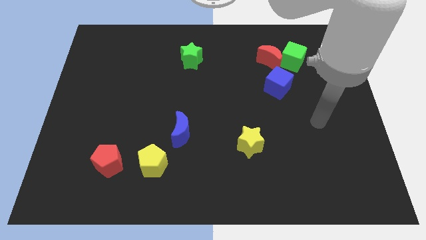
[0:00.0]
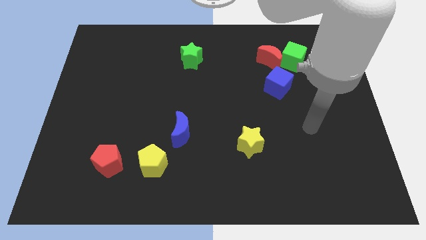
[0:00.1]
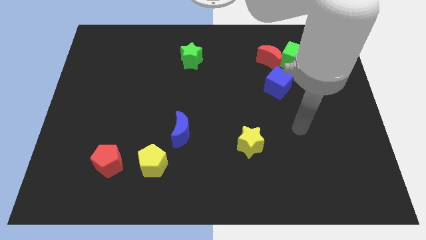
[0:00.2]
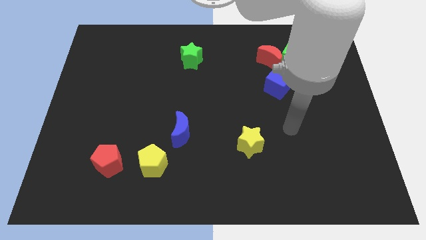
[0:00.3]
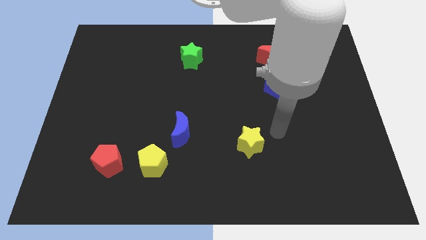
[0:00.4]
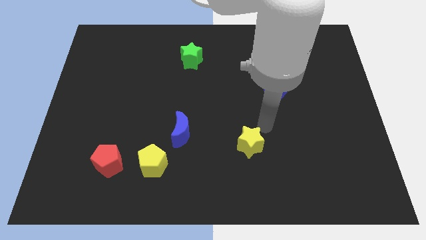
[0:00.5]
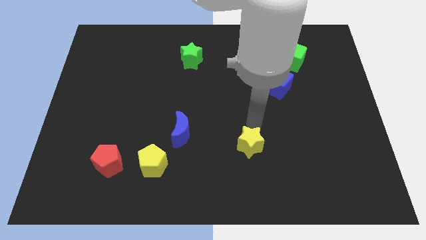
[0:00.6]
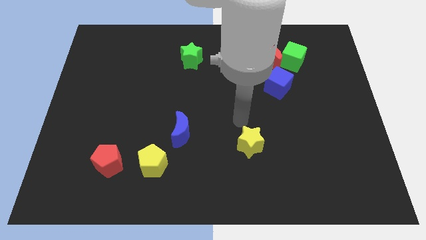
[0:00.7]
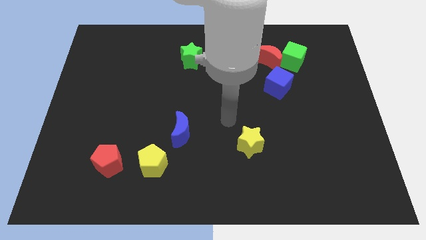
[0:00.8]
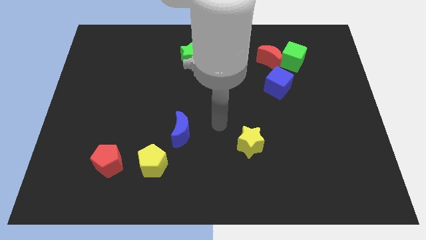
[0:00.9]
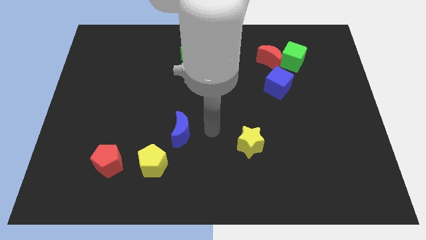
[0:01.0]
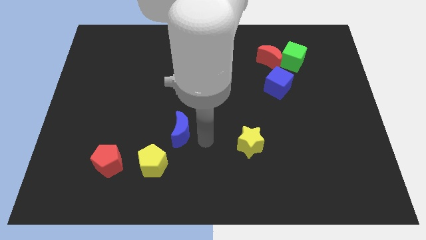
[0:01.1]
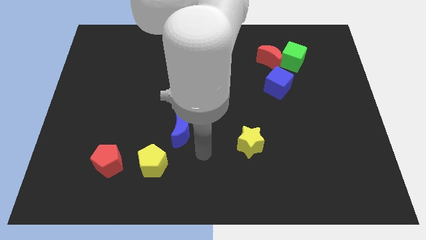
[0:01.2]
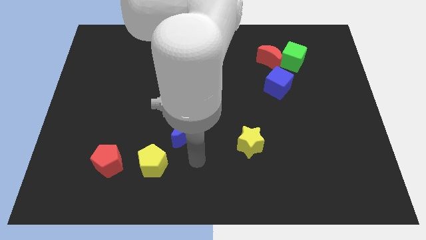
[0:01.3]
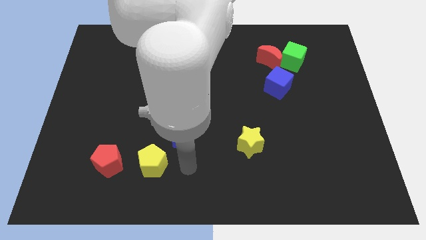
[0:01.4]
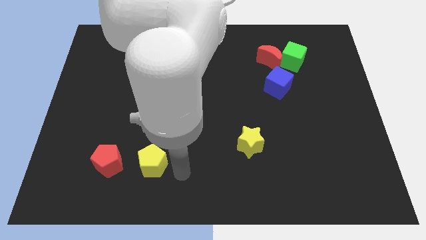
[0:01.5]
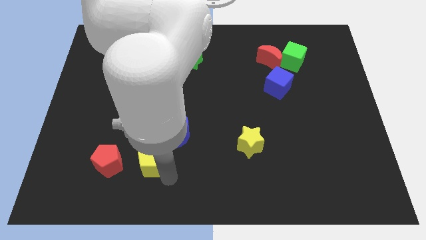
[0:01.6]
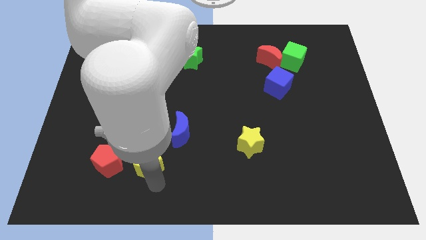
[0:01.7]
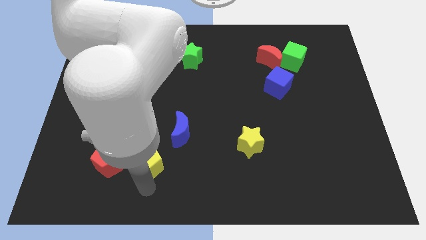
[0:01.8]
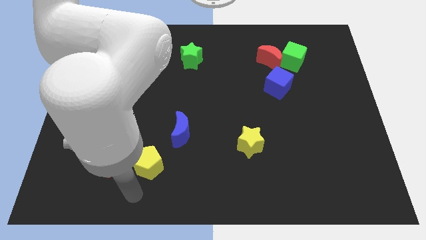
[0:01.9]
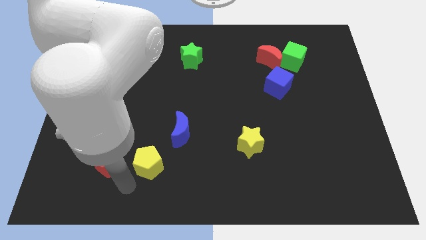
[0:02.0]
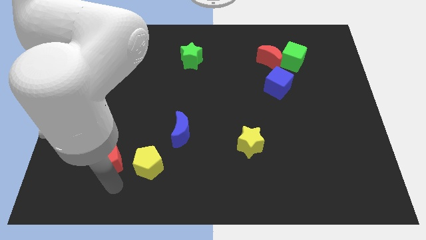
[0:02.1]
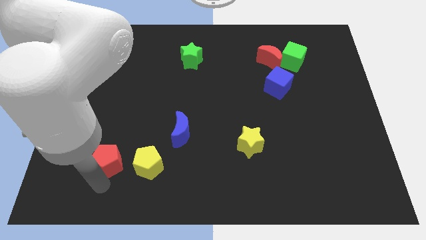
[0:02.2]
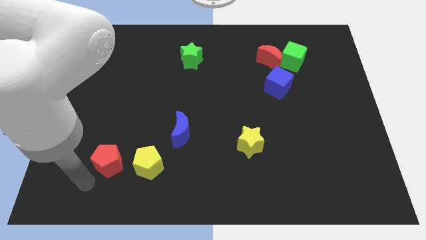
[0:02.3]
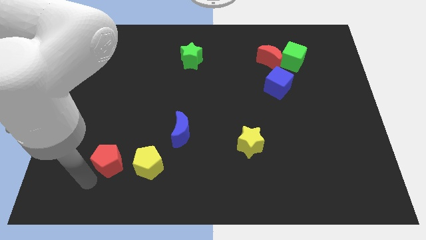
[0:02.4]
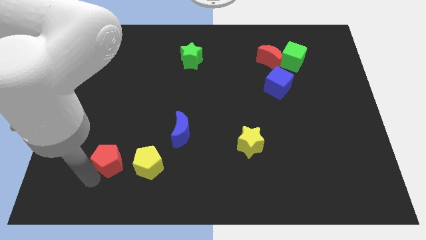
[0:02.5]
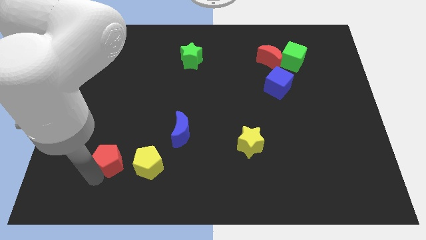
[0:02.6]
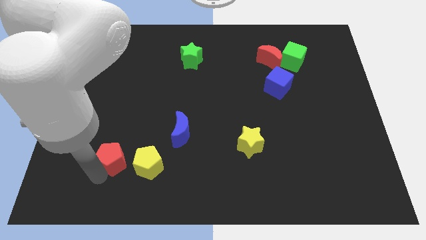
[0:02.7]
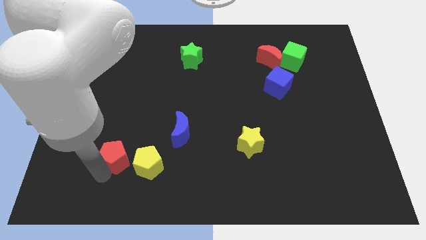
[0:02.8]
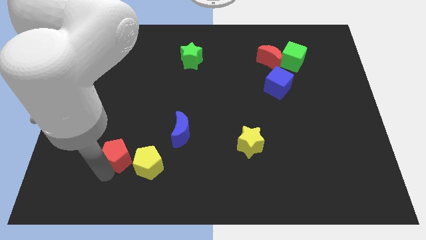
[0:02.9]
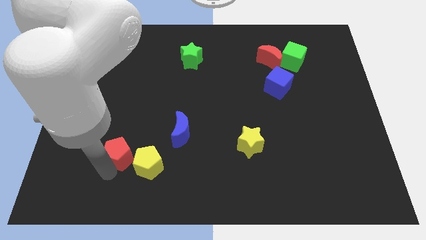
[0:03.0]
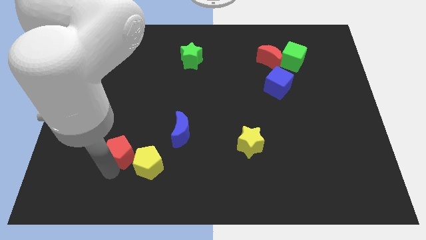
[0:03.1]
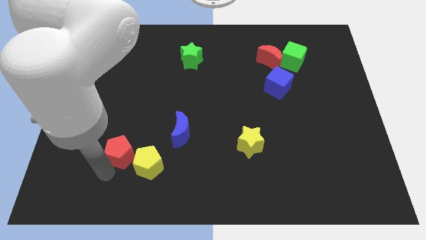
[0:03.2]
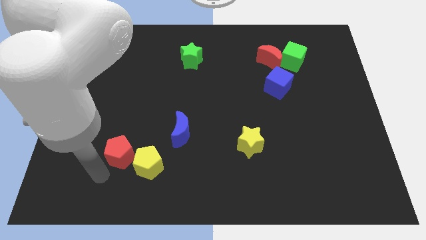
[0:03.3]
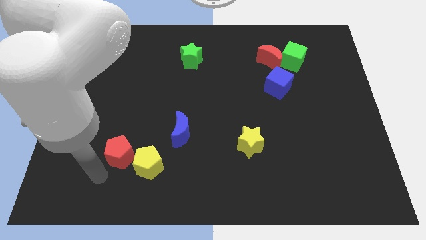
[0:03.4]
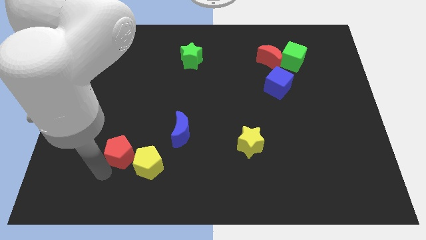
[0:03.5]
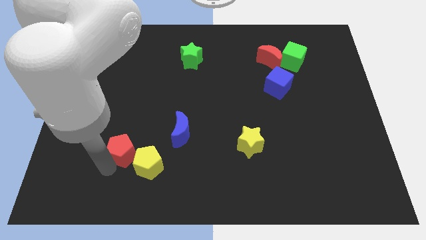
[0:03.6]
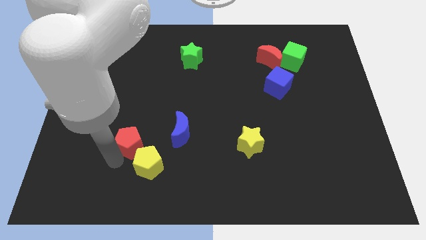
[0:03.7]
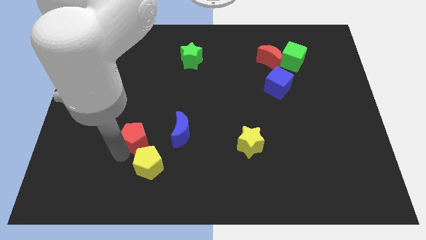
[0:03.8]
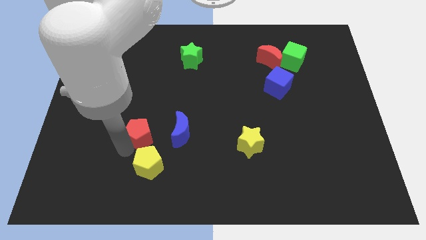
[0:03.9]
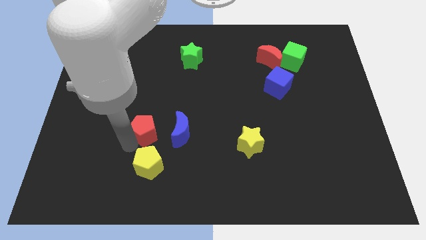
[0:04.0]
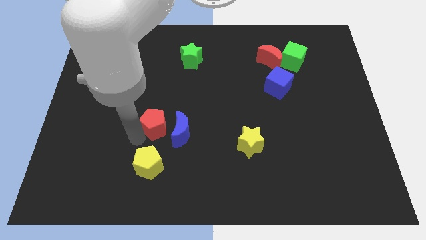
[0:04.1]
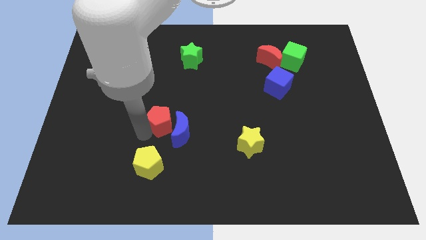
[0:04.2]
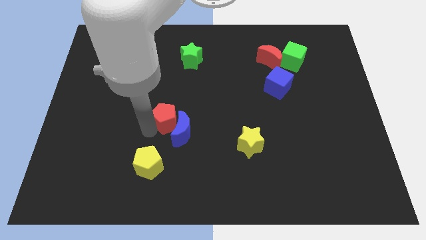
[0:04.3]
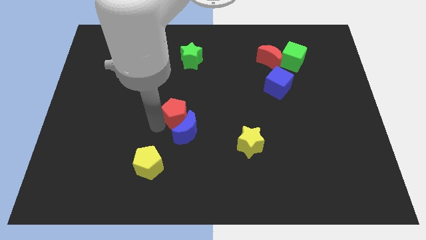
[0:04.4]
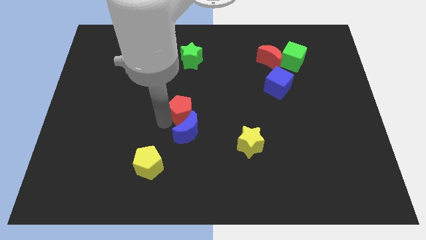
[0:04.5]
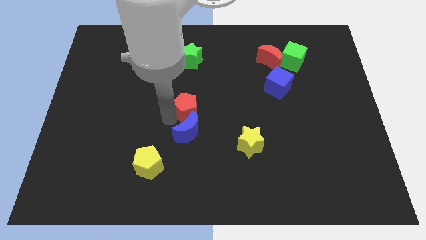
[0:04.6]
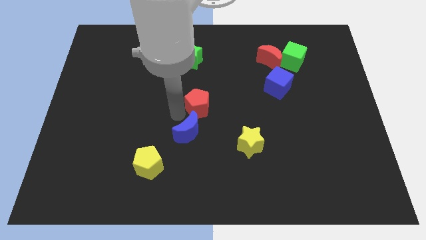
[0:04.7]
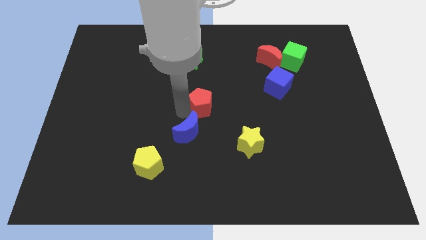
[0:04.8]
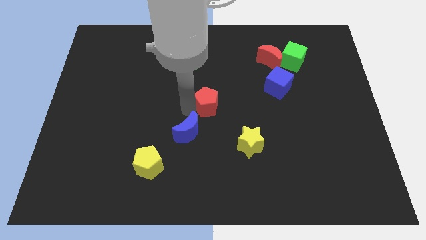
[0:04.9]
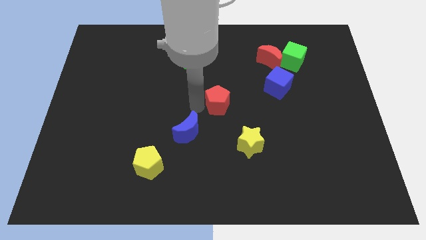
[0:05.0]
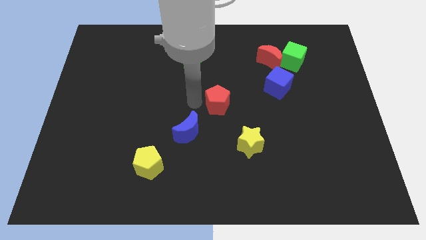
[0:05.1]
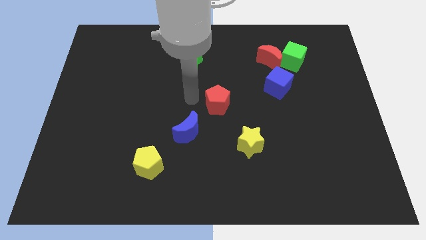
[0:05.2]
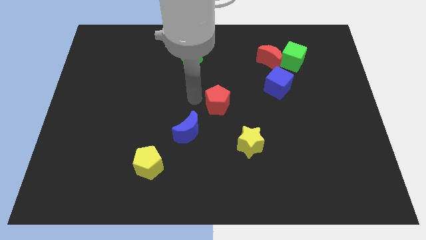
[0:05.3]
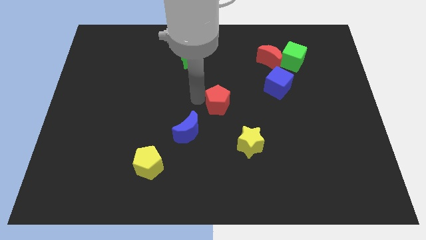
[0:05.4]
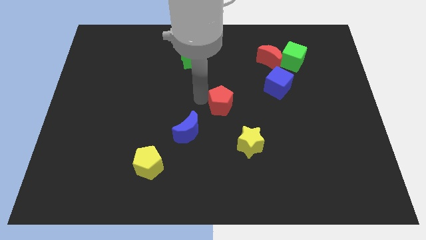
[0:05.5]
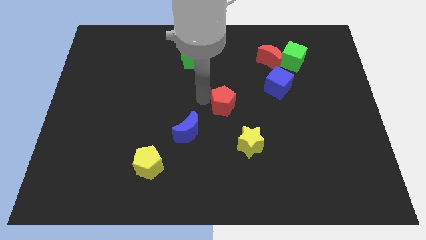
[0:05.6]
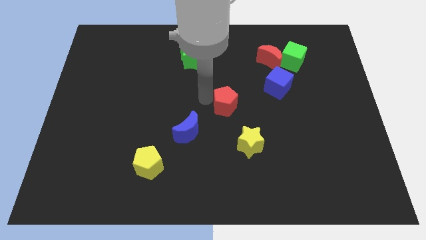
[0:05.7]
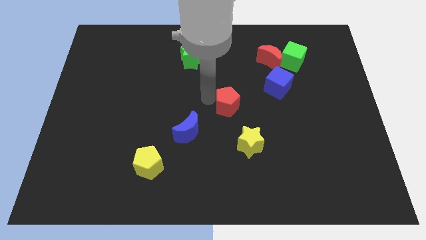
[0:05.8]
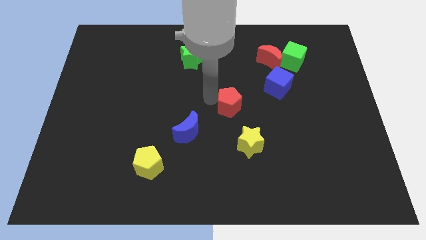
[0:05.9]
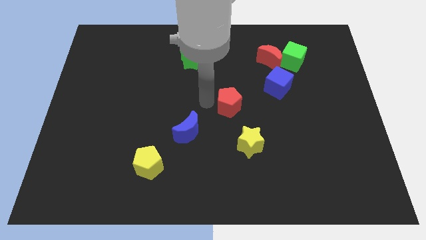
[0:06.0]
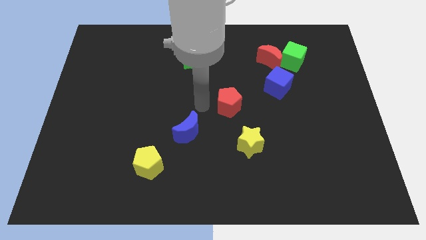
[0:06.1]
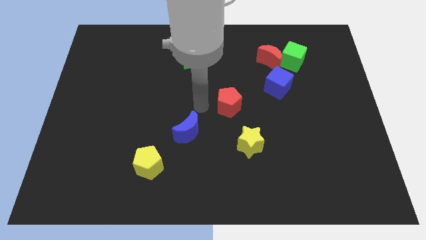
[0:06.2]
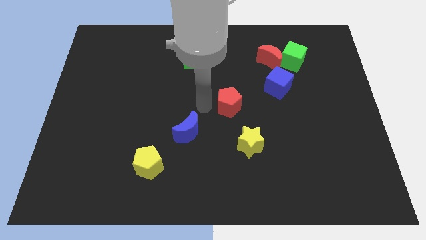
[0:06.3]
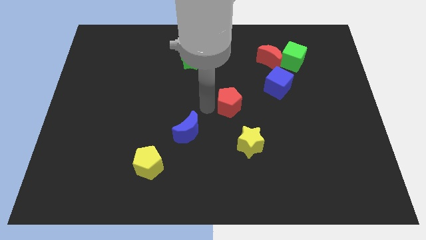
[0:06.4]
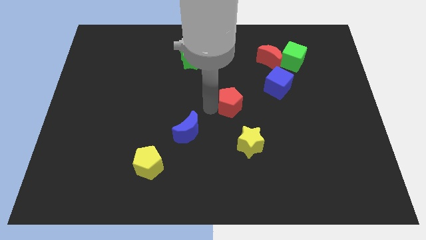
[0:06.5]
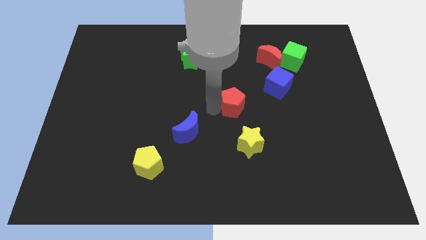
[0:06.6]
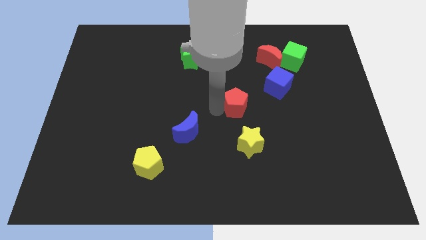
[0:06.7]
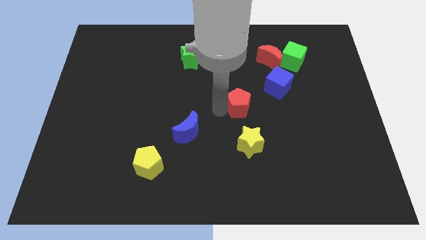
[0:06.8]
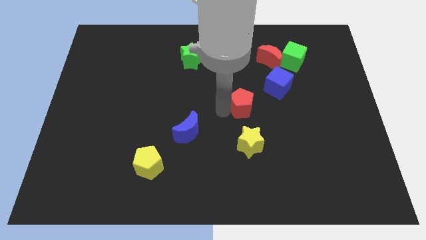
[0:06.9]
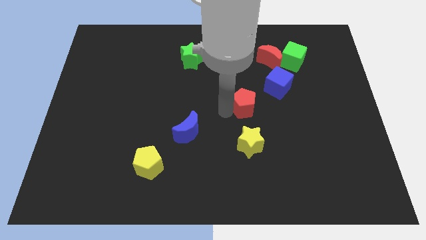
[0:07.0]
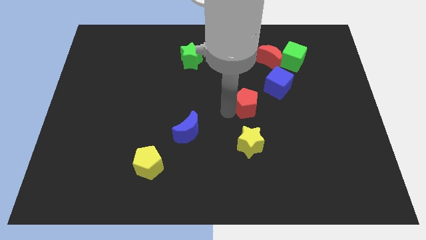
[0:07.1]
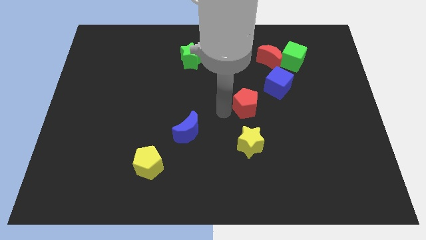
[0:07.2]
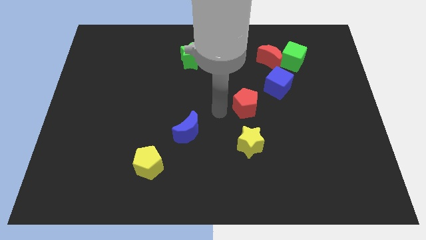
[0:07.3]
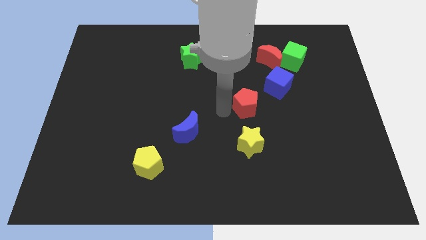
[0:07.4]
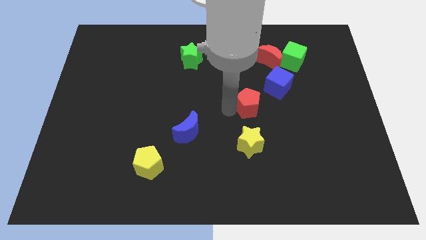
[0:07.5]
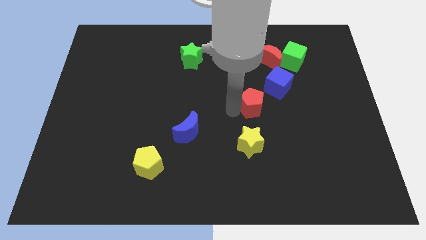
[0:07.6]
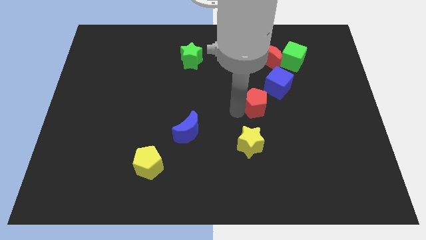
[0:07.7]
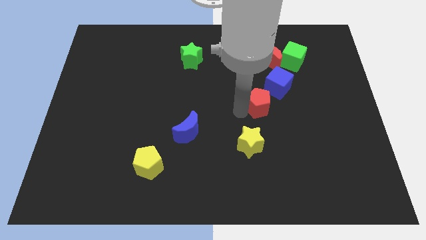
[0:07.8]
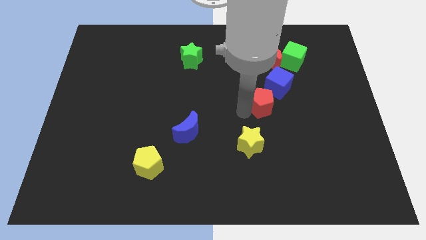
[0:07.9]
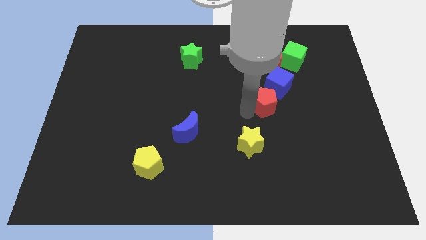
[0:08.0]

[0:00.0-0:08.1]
put the red pentagon to the bottom of the red moon
